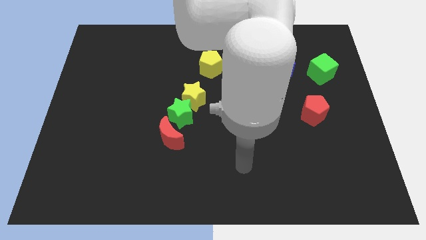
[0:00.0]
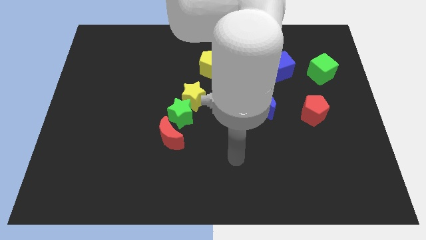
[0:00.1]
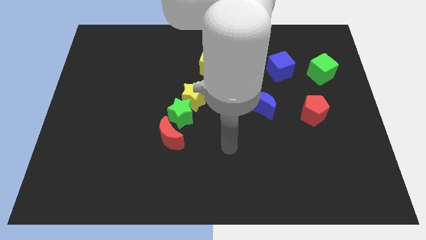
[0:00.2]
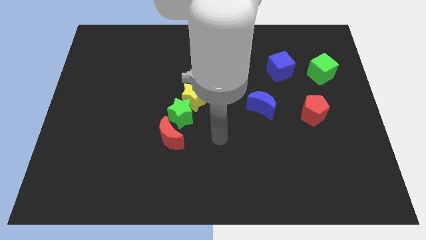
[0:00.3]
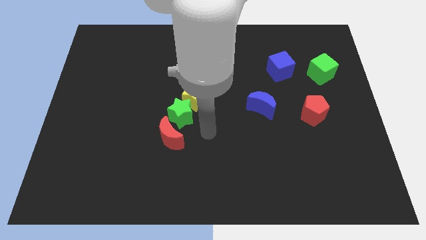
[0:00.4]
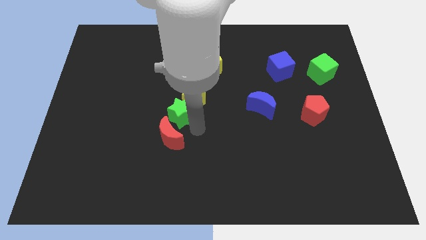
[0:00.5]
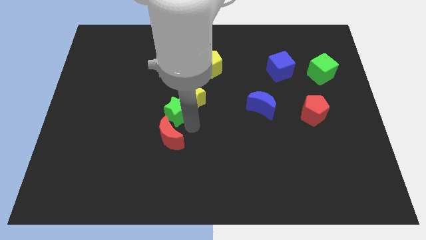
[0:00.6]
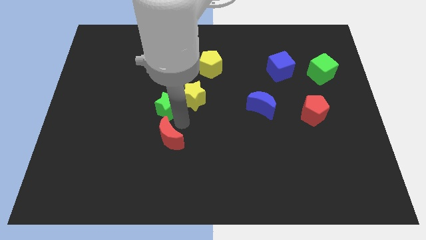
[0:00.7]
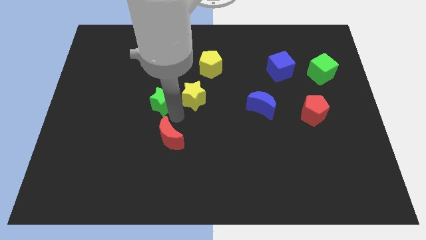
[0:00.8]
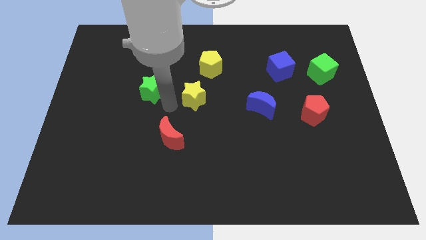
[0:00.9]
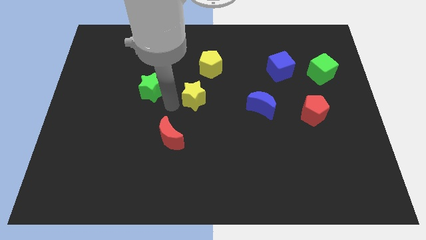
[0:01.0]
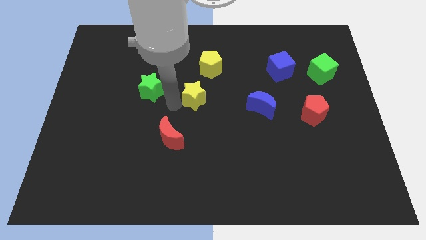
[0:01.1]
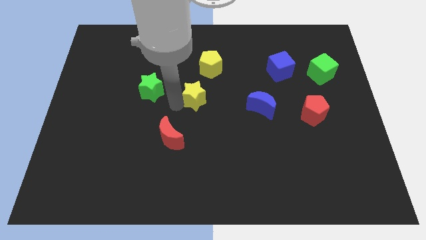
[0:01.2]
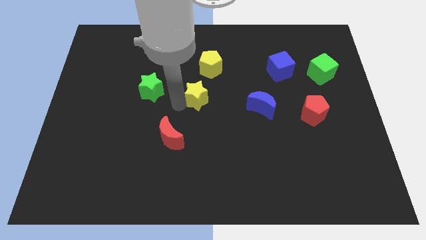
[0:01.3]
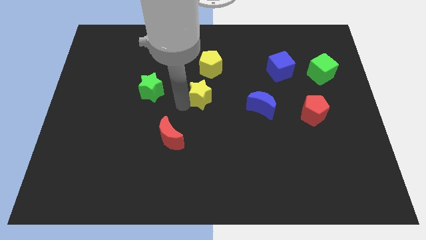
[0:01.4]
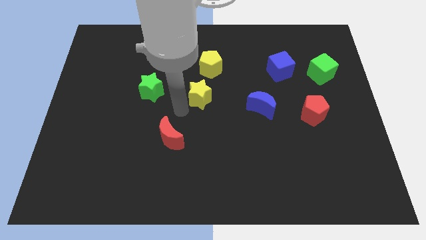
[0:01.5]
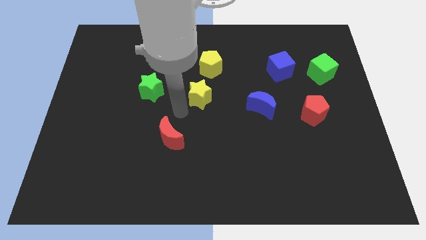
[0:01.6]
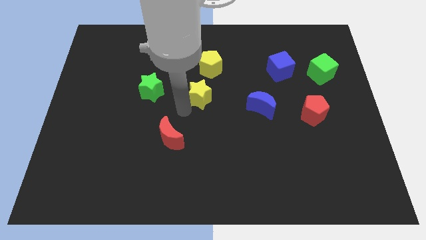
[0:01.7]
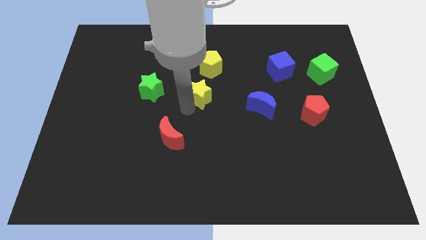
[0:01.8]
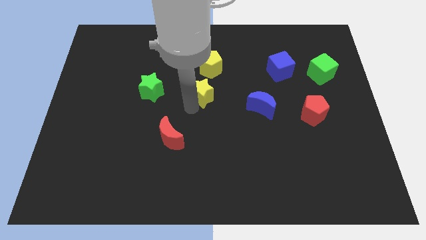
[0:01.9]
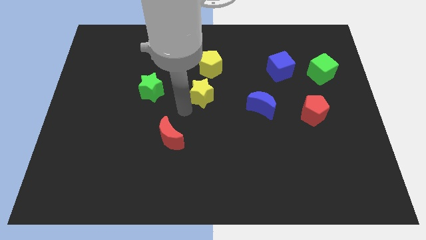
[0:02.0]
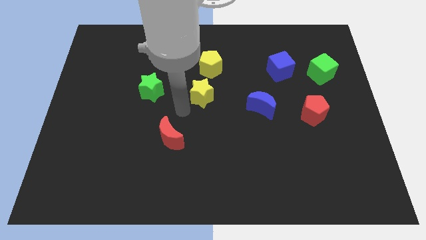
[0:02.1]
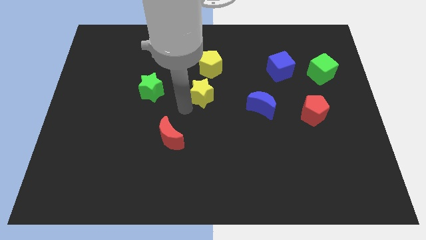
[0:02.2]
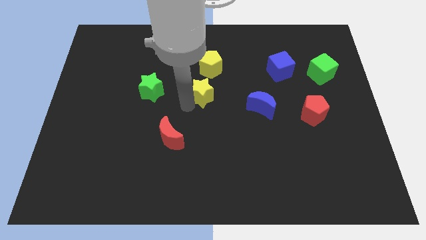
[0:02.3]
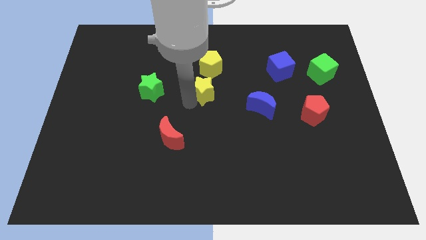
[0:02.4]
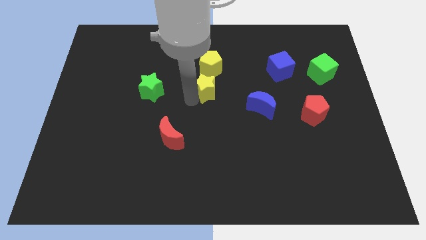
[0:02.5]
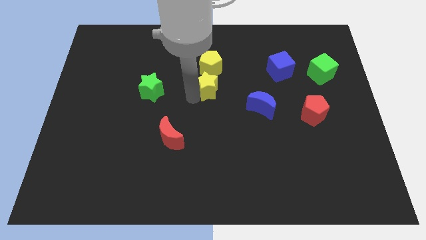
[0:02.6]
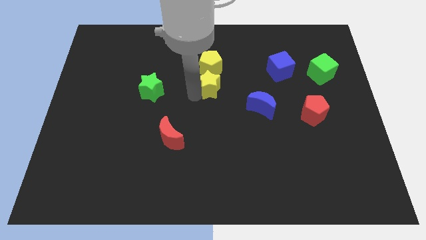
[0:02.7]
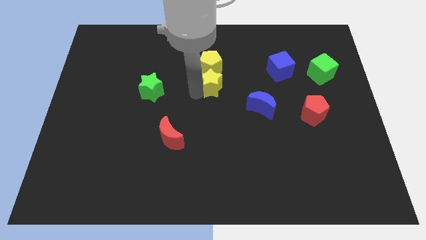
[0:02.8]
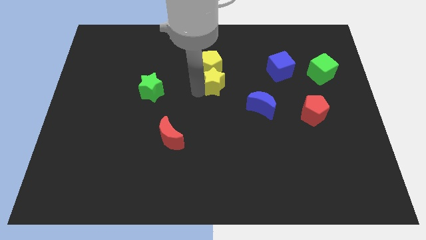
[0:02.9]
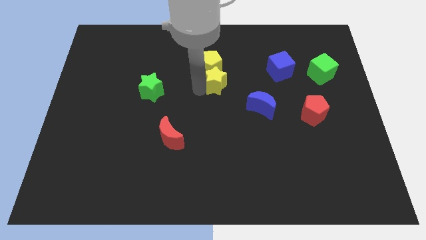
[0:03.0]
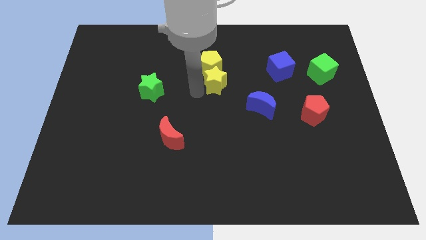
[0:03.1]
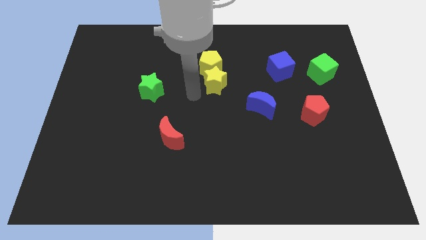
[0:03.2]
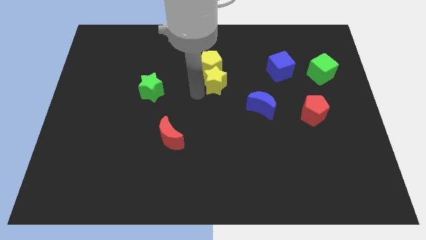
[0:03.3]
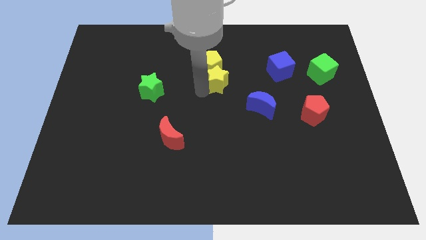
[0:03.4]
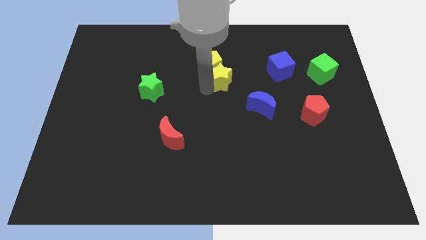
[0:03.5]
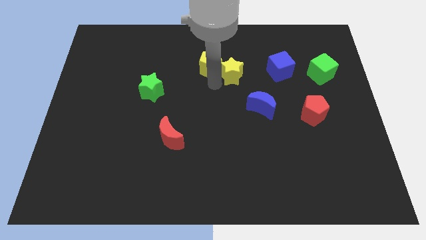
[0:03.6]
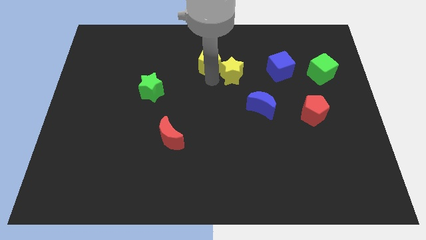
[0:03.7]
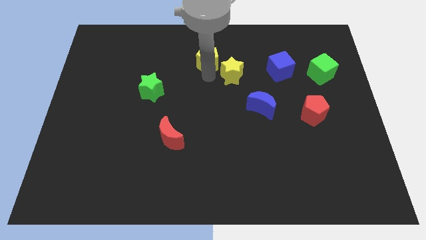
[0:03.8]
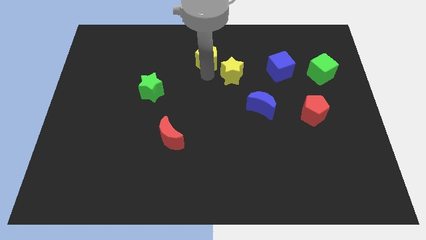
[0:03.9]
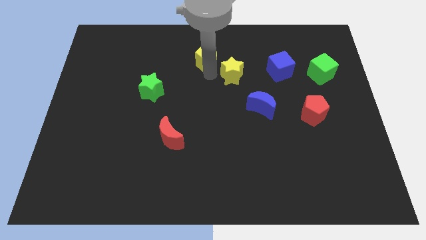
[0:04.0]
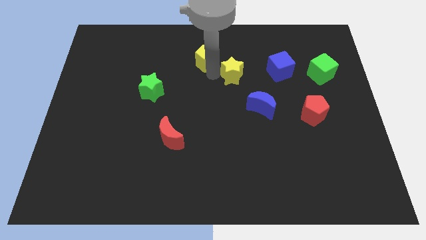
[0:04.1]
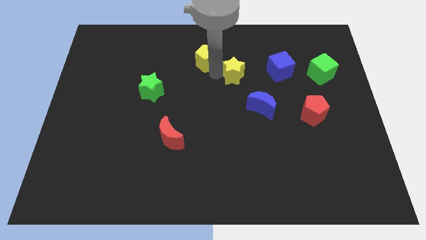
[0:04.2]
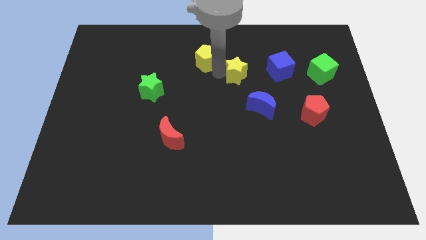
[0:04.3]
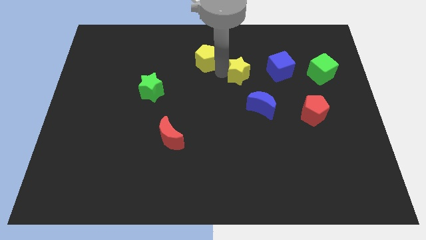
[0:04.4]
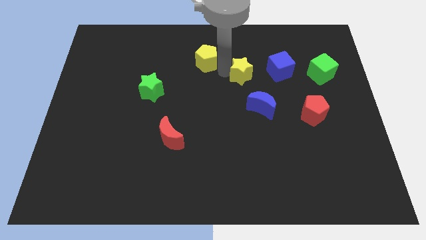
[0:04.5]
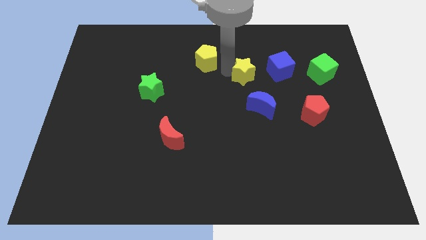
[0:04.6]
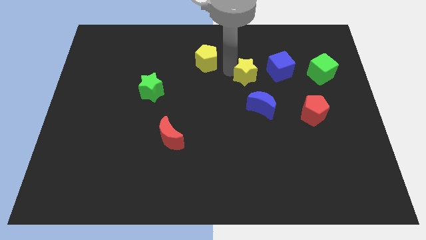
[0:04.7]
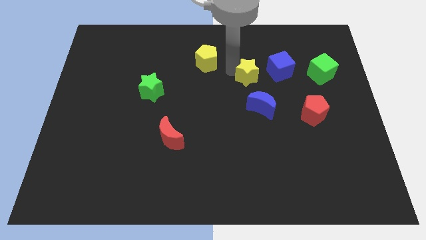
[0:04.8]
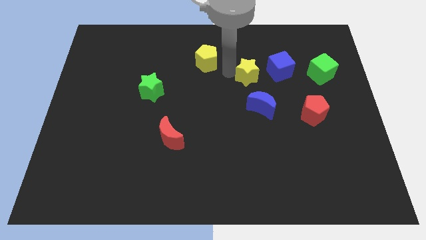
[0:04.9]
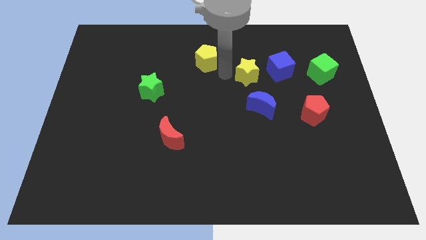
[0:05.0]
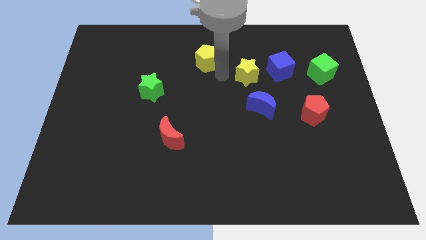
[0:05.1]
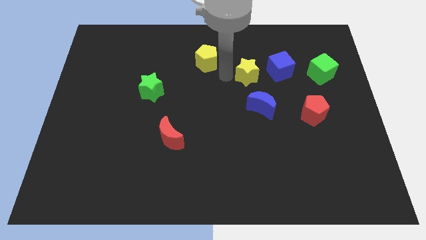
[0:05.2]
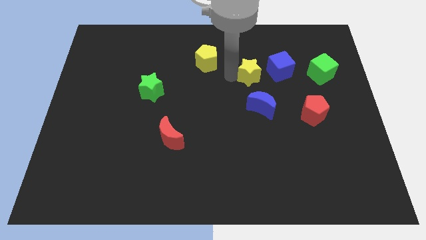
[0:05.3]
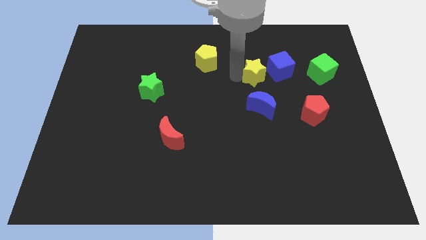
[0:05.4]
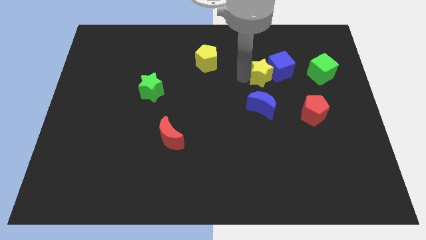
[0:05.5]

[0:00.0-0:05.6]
move the yellow star next to the blue cube

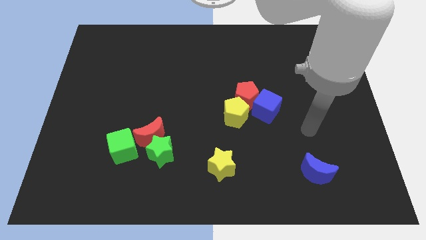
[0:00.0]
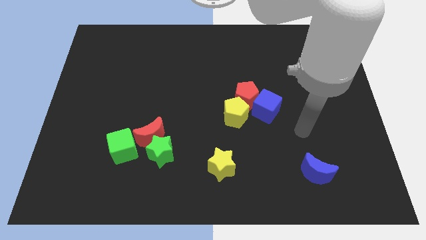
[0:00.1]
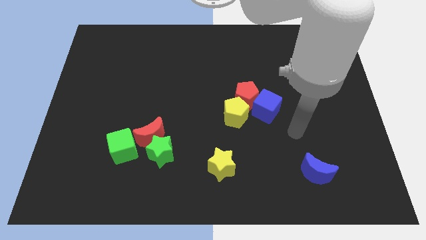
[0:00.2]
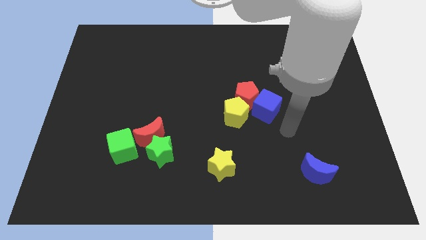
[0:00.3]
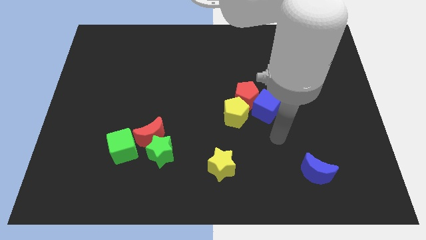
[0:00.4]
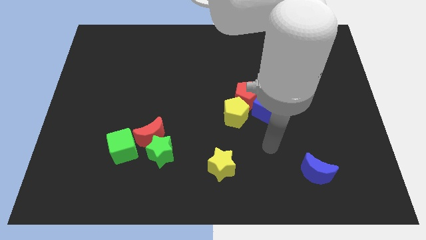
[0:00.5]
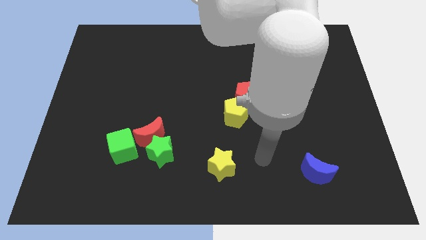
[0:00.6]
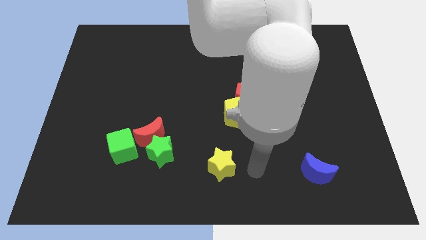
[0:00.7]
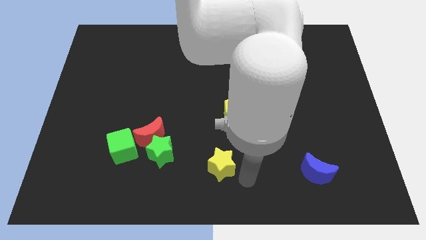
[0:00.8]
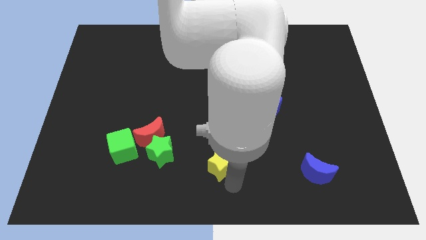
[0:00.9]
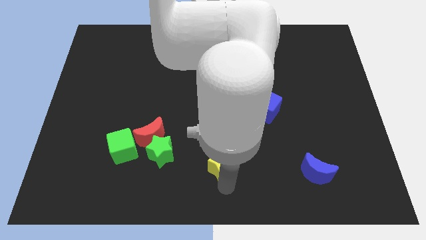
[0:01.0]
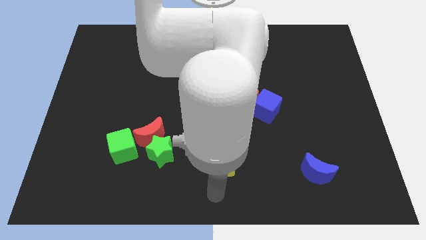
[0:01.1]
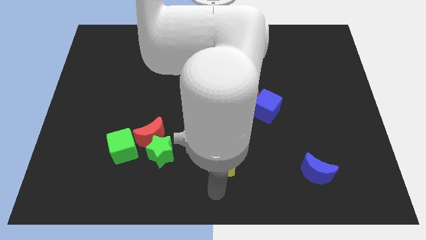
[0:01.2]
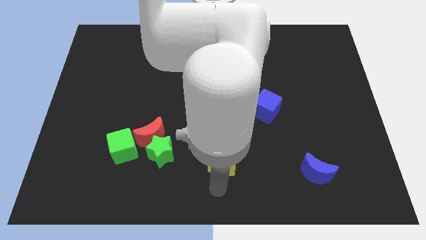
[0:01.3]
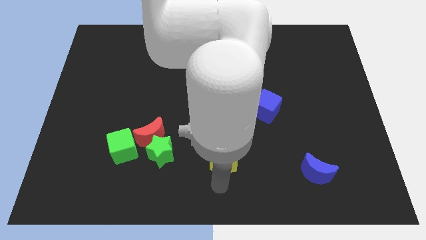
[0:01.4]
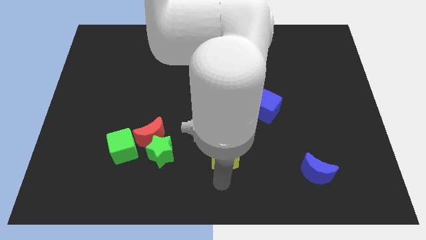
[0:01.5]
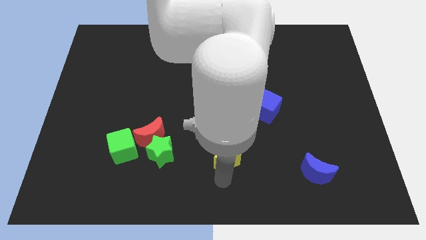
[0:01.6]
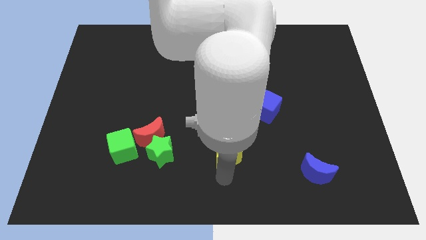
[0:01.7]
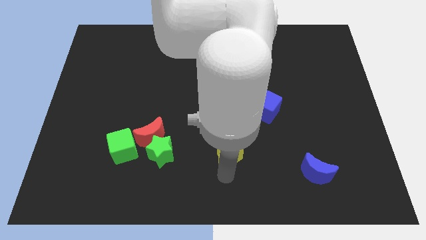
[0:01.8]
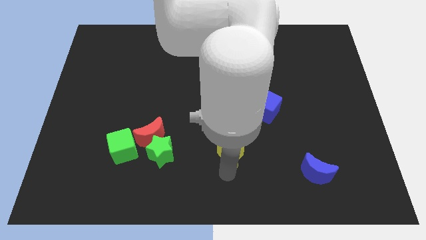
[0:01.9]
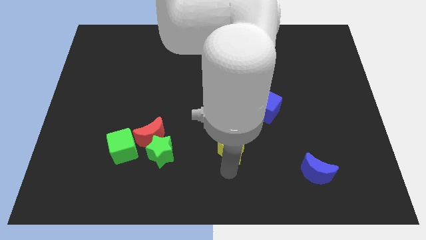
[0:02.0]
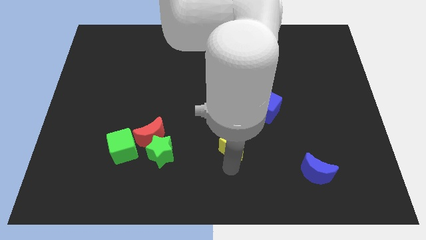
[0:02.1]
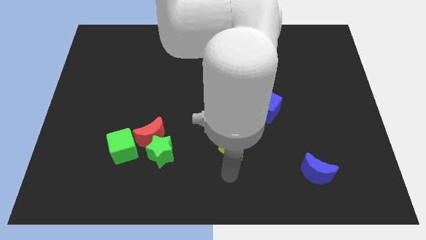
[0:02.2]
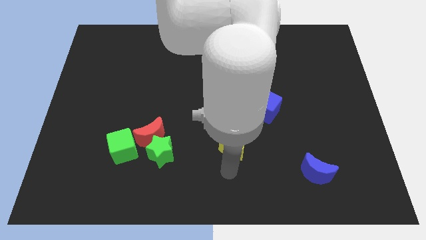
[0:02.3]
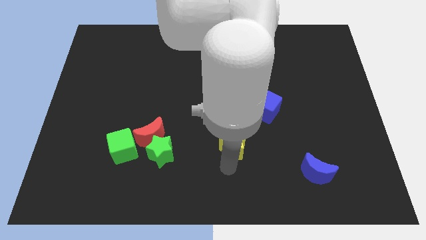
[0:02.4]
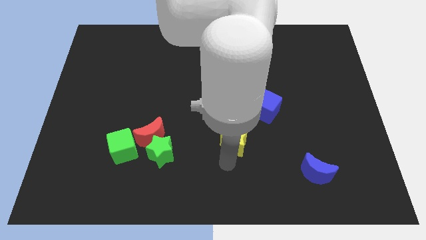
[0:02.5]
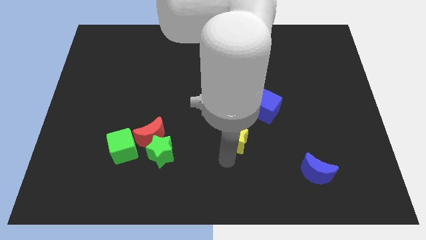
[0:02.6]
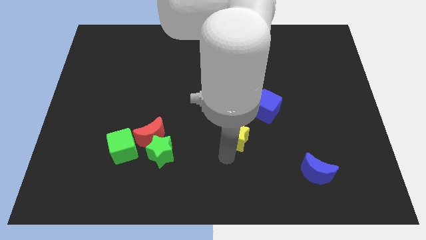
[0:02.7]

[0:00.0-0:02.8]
push the yellow star towards the yellow pentagon
